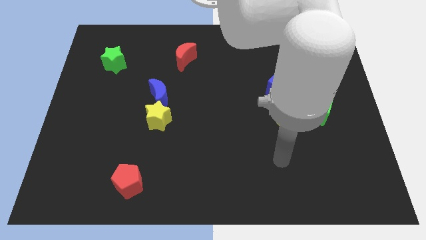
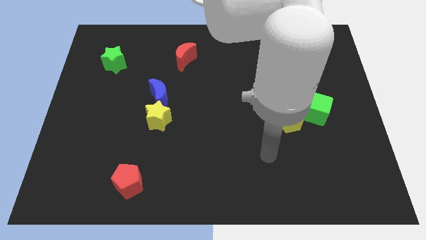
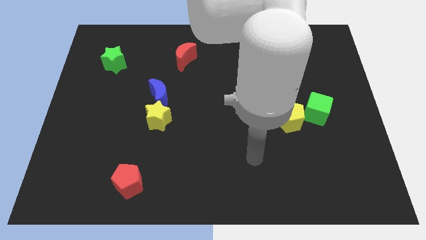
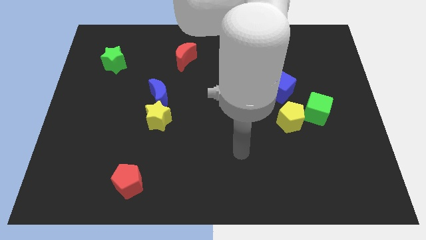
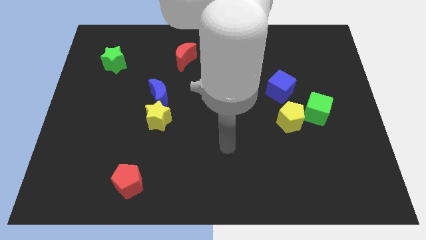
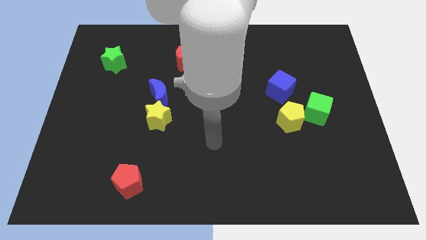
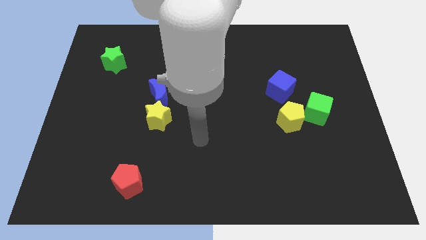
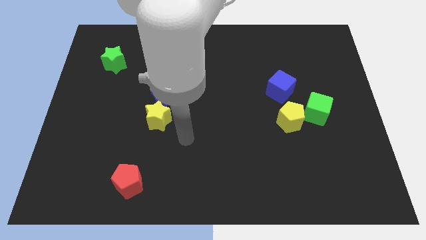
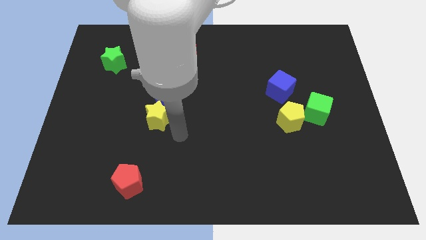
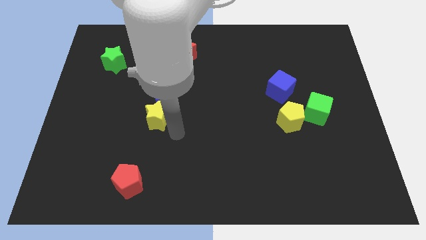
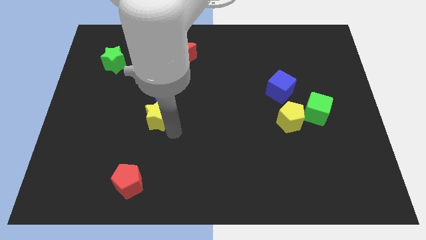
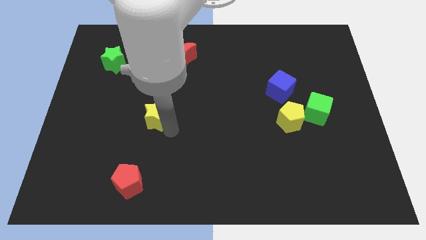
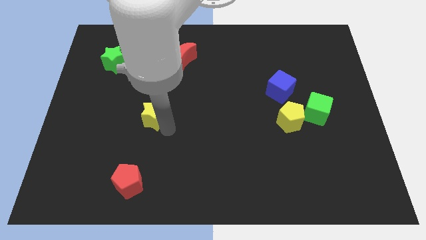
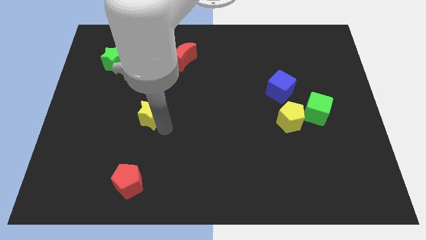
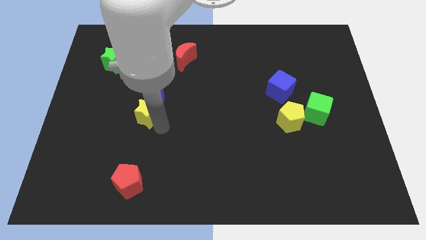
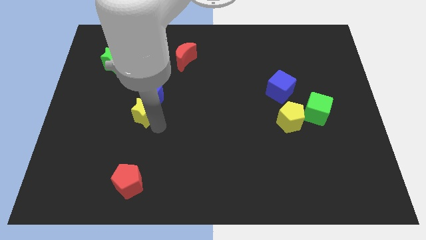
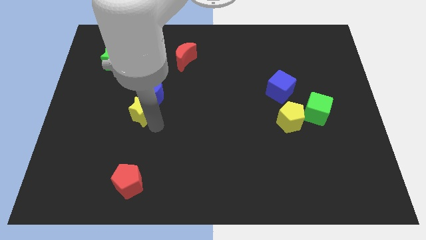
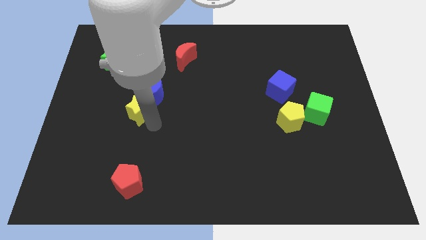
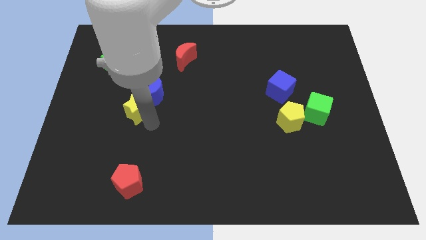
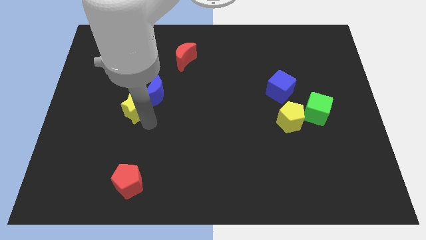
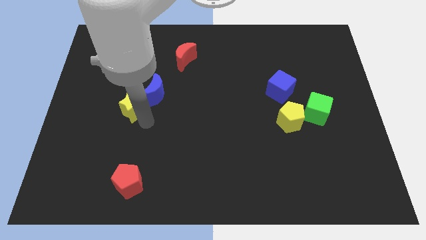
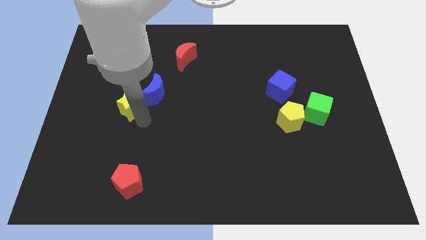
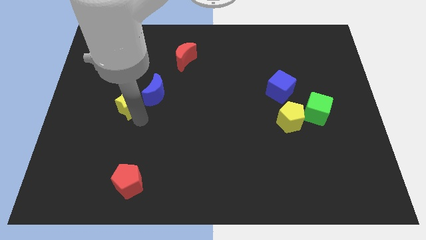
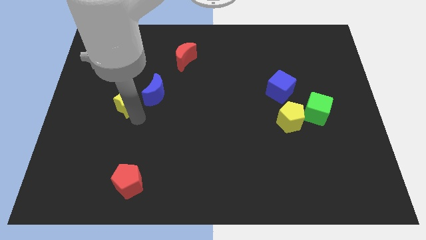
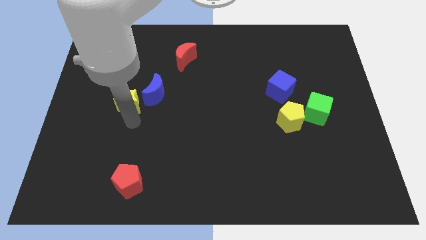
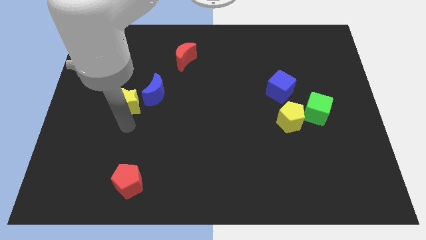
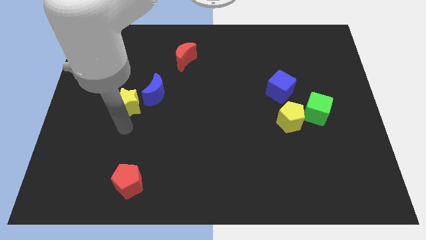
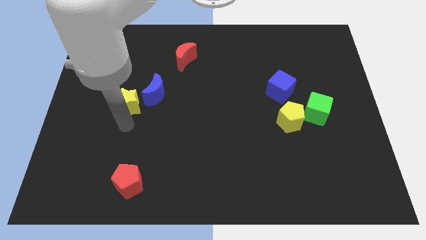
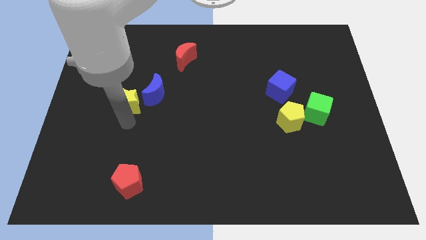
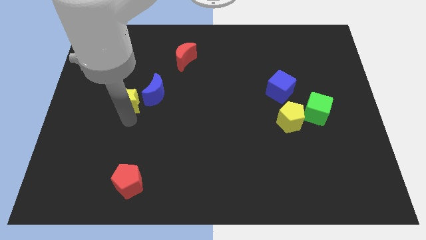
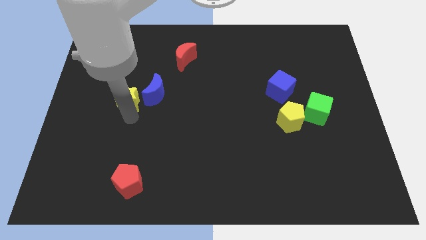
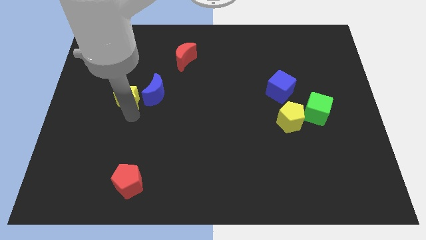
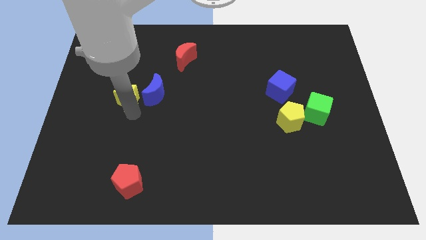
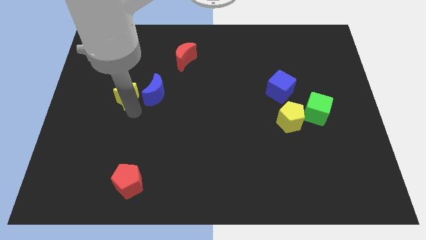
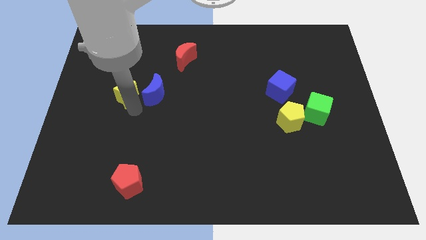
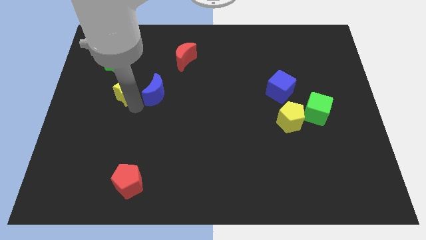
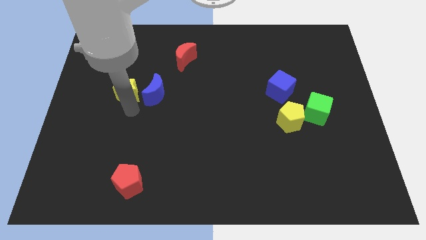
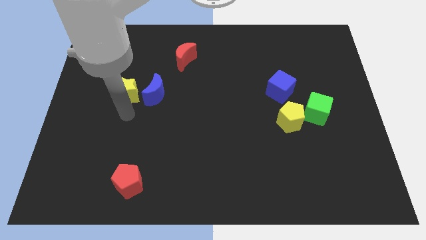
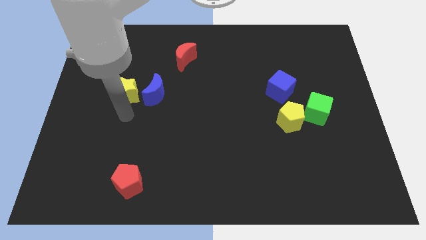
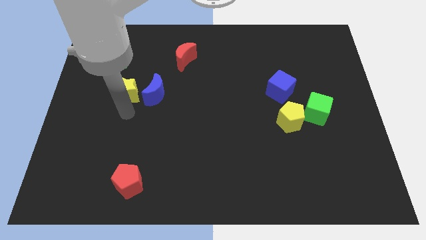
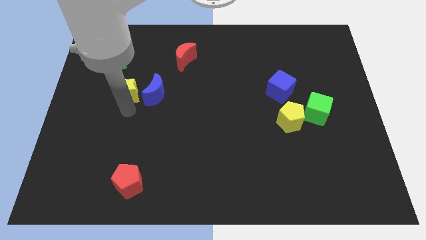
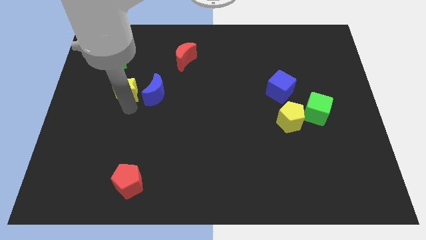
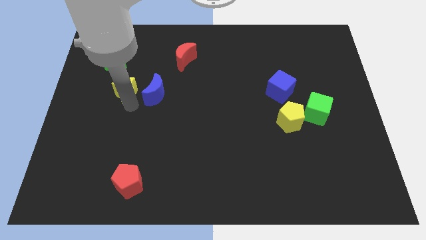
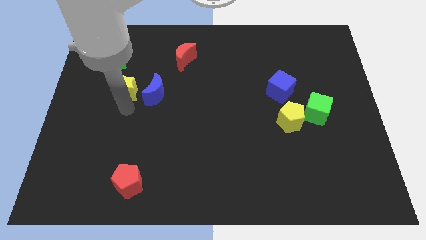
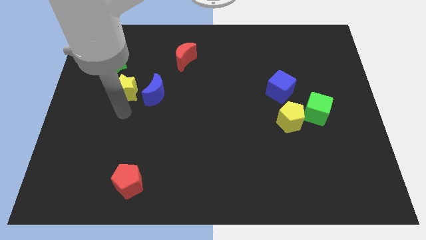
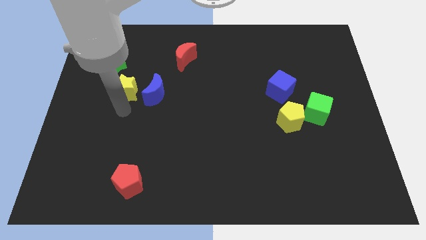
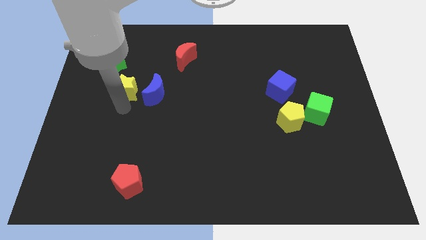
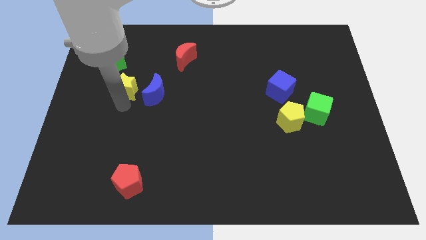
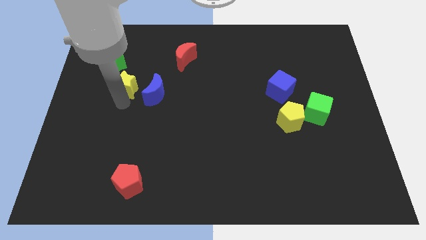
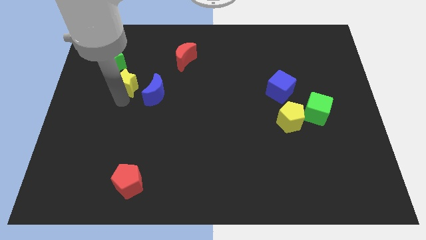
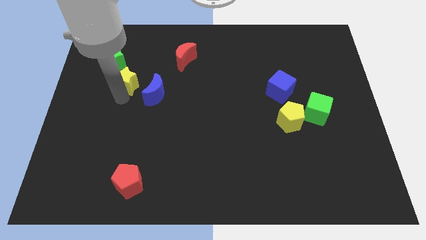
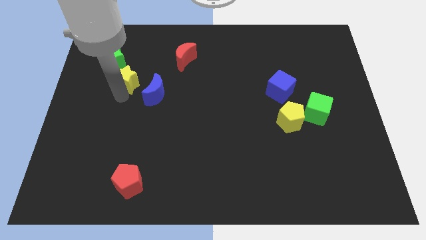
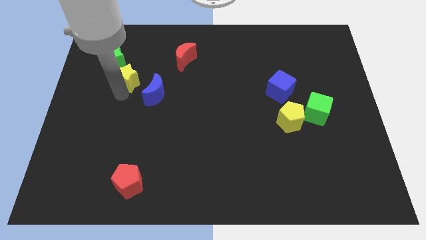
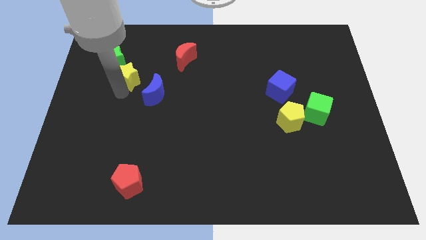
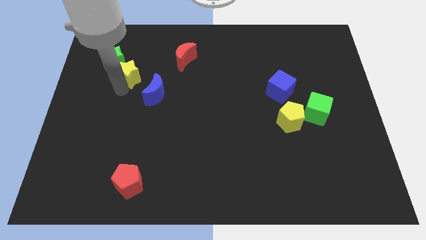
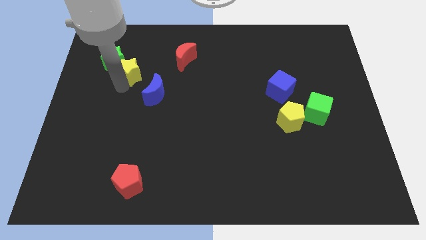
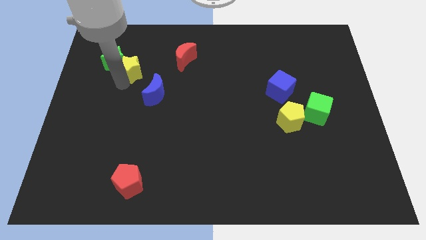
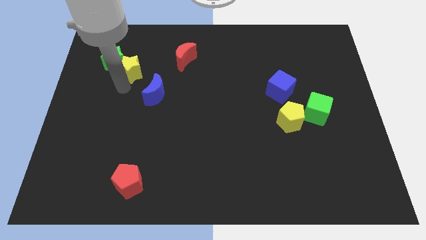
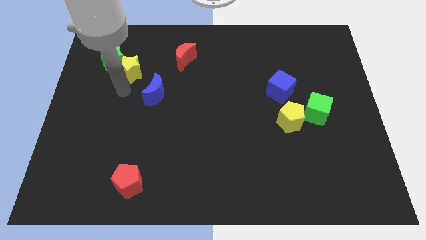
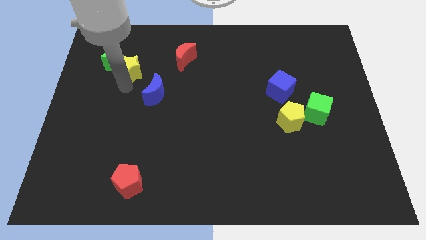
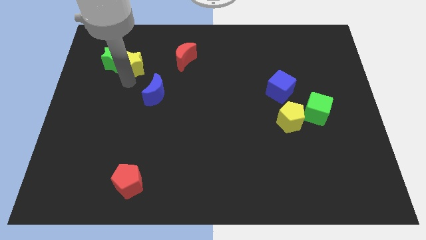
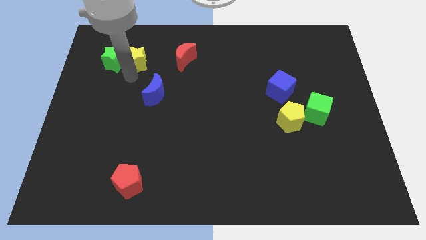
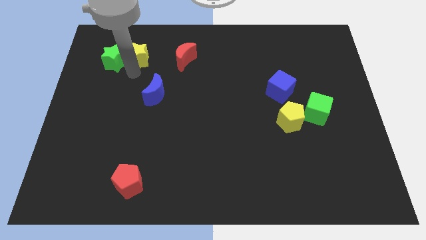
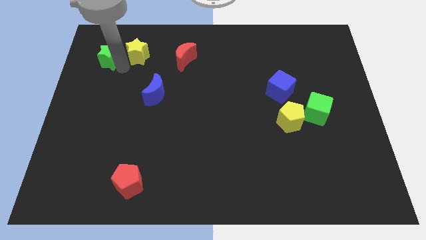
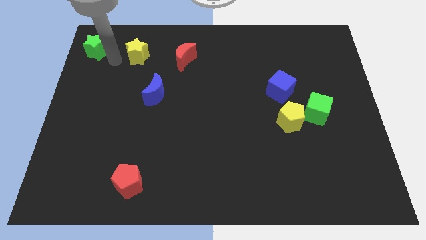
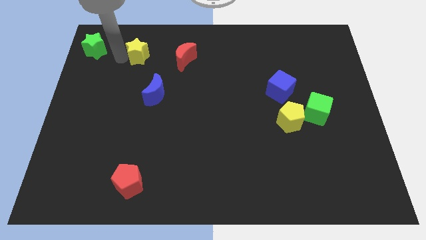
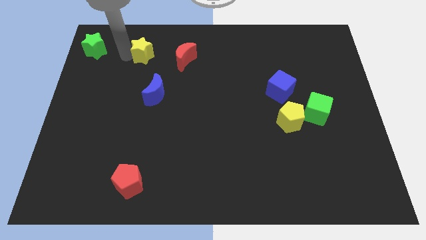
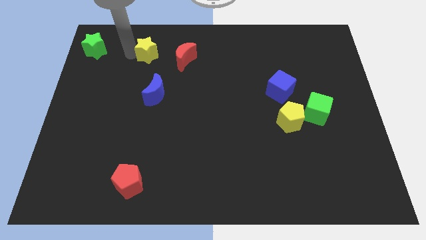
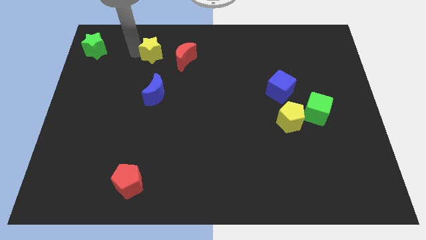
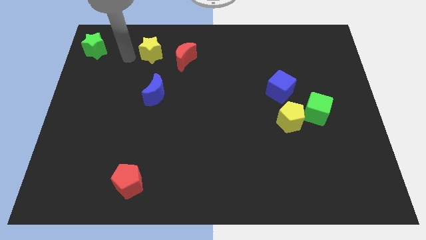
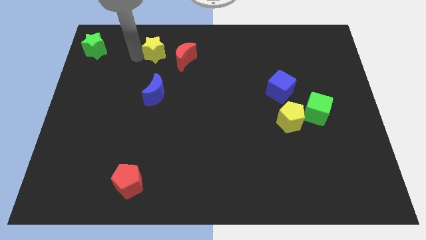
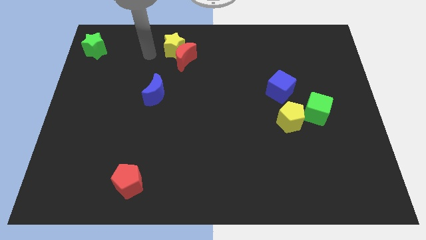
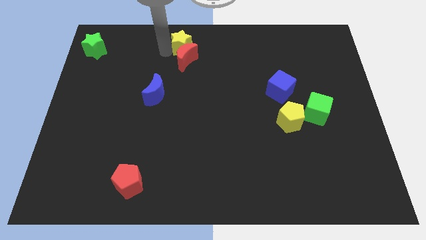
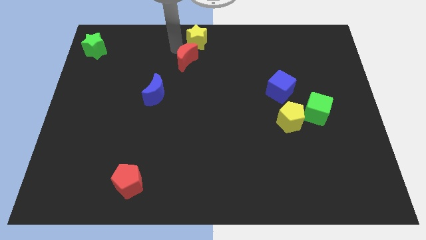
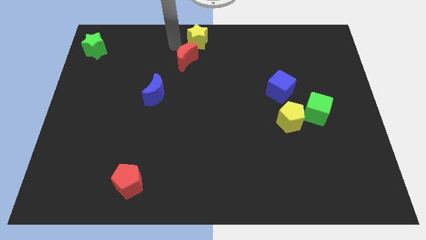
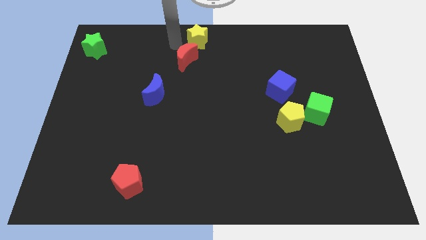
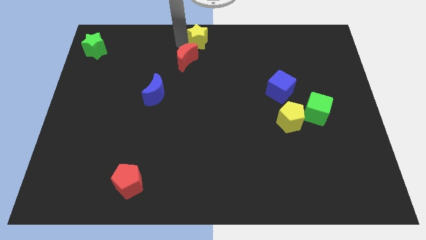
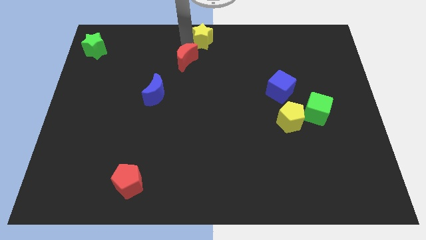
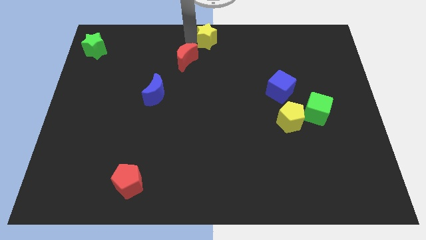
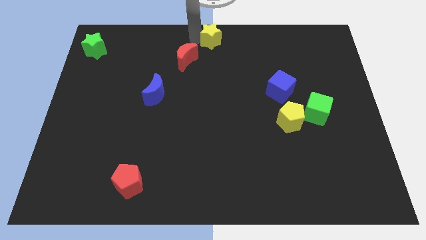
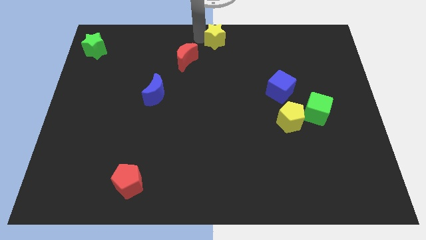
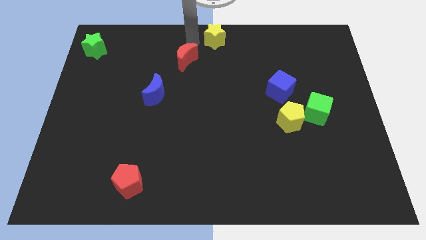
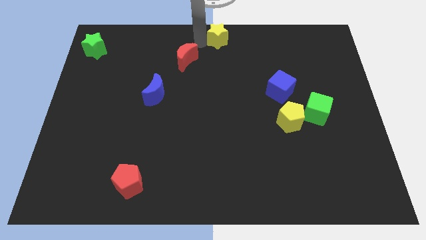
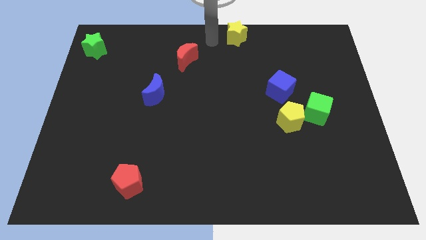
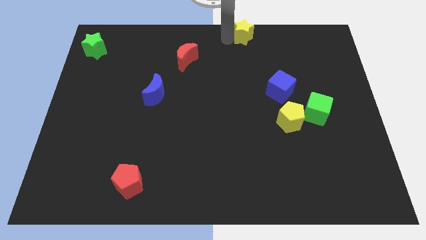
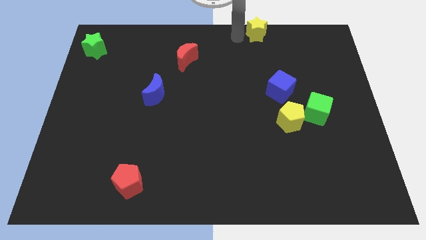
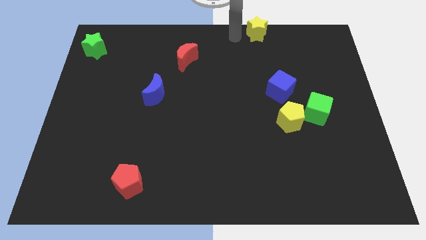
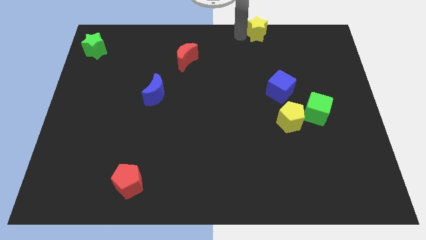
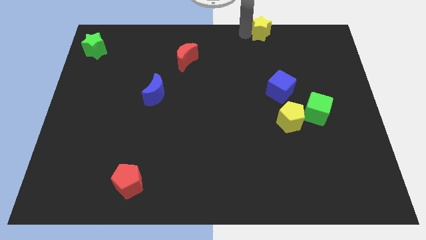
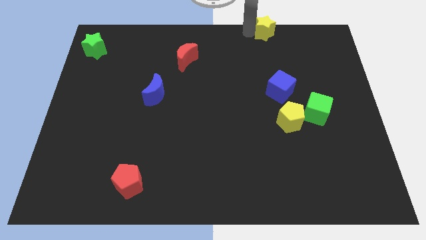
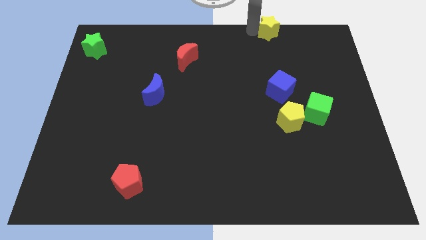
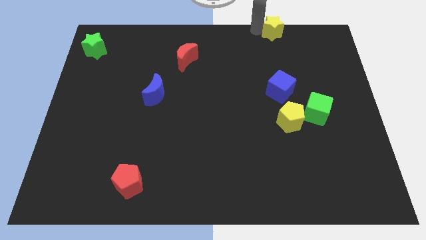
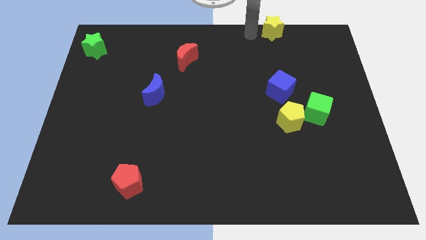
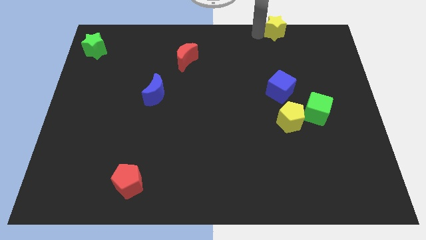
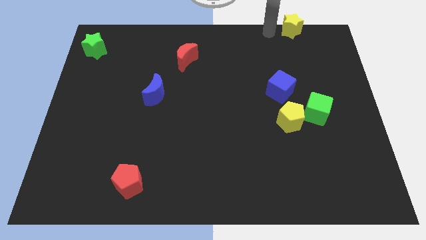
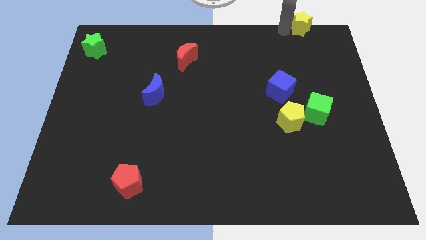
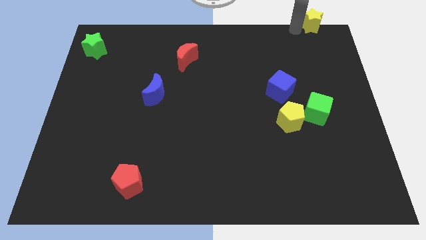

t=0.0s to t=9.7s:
move the yellow star to the upper right corner
